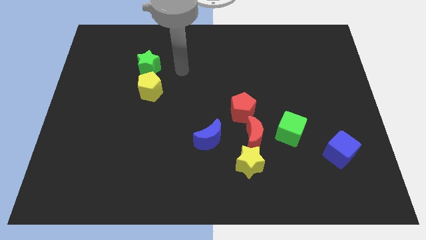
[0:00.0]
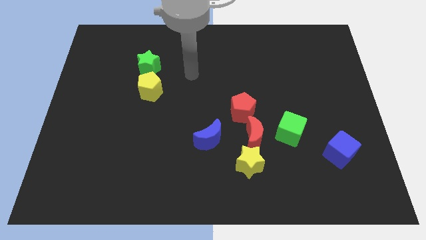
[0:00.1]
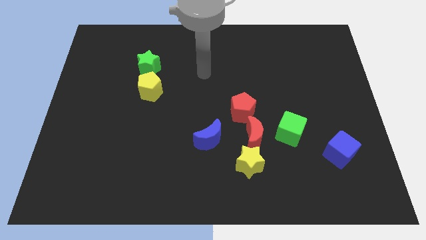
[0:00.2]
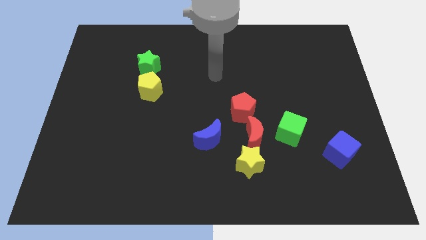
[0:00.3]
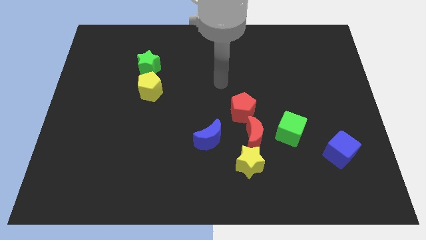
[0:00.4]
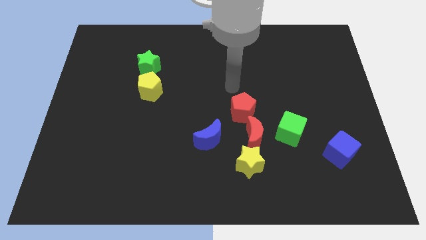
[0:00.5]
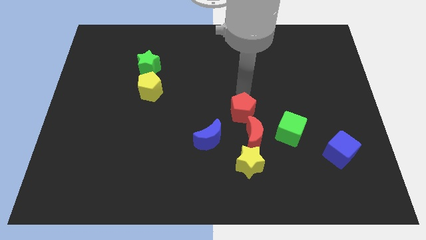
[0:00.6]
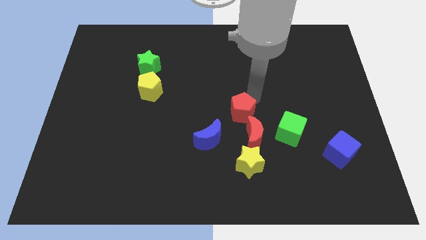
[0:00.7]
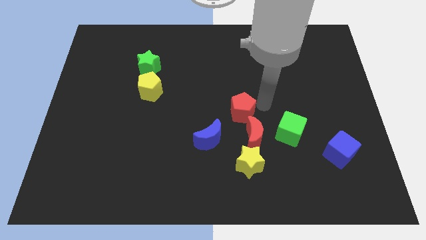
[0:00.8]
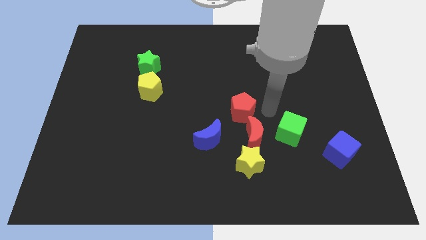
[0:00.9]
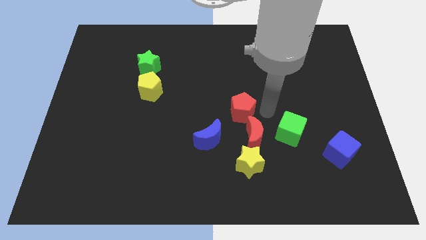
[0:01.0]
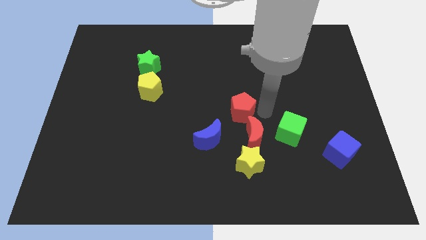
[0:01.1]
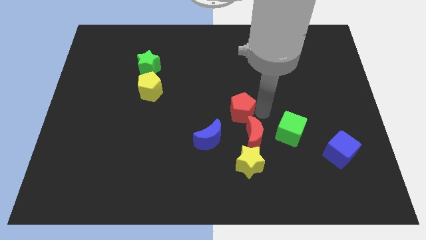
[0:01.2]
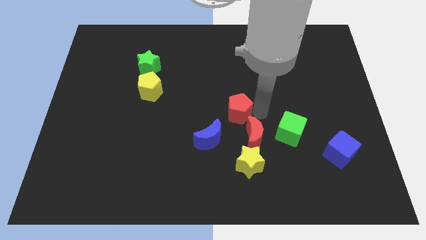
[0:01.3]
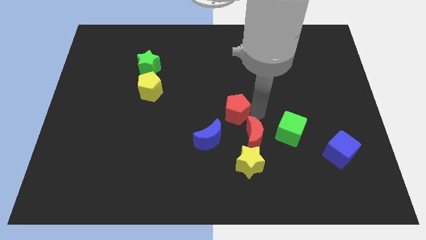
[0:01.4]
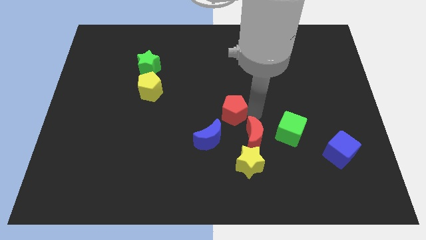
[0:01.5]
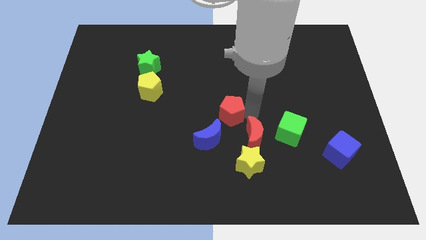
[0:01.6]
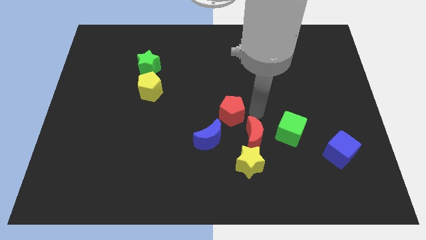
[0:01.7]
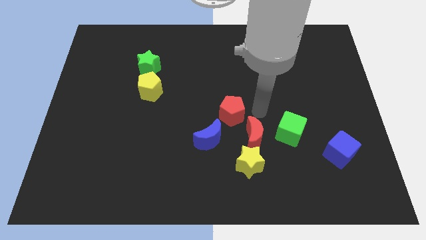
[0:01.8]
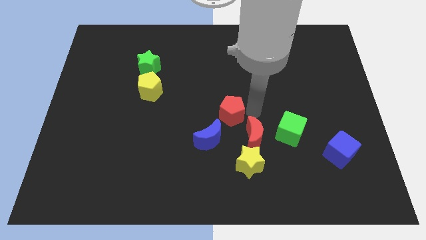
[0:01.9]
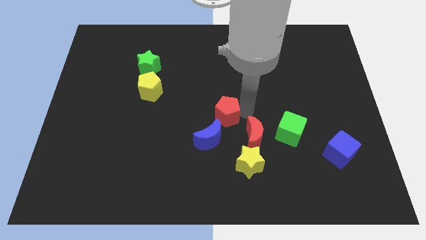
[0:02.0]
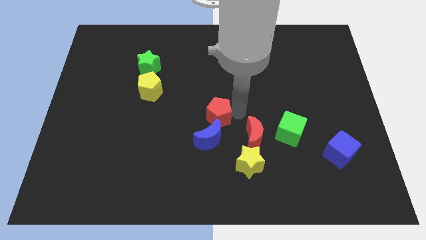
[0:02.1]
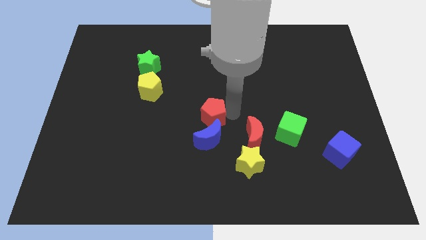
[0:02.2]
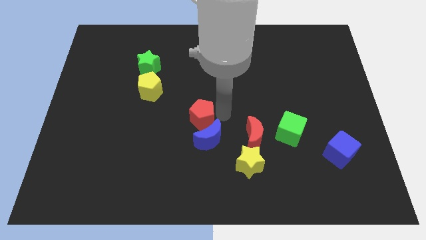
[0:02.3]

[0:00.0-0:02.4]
slide the red pentagon a little bit to the left

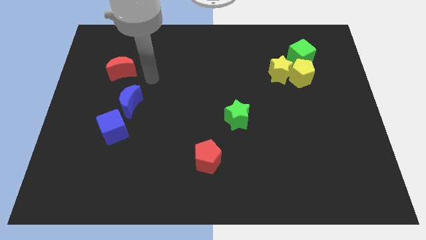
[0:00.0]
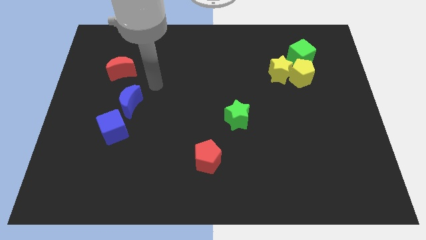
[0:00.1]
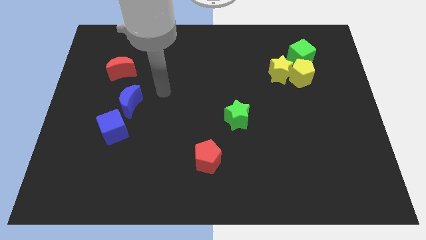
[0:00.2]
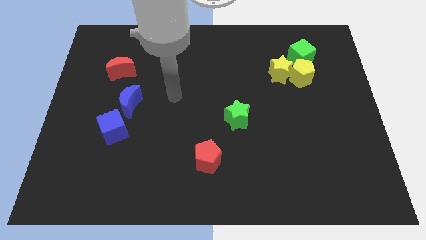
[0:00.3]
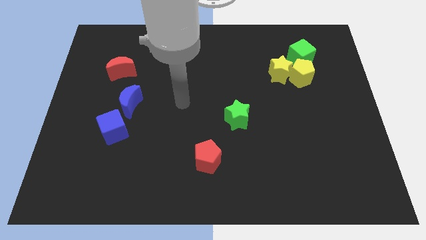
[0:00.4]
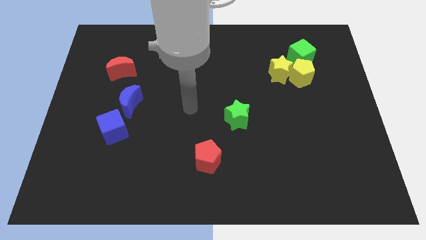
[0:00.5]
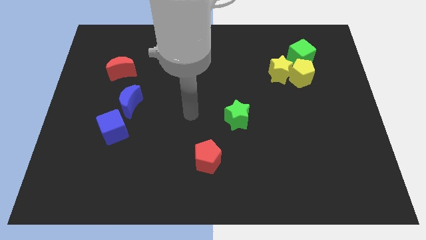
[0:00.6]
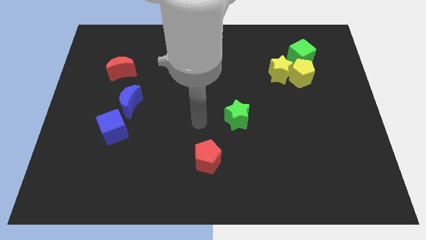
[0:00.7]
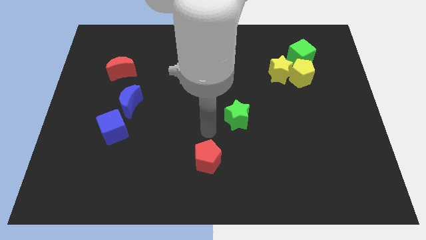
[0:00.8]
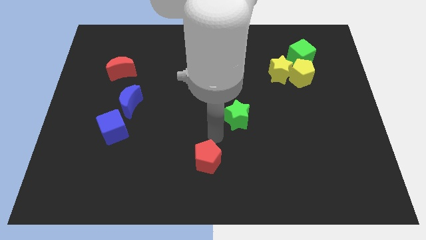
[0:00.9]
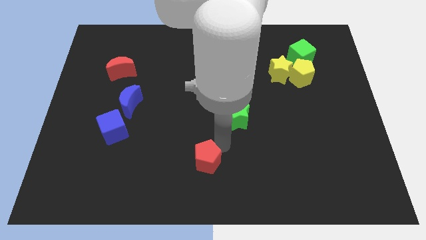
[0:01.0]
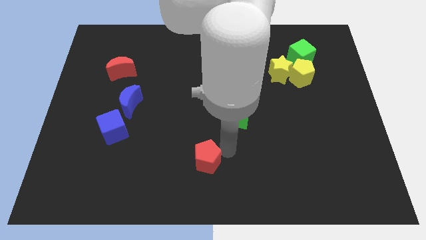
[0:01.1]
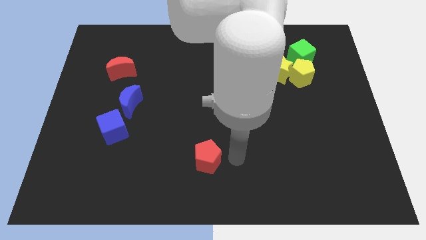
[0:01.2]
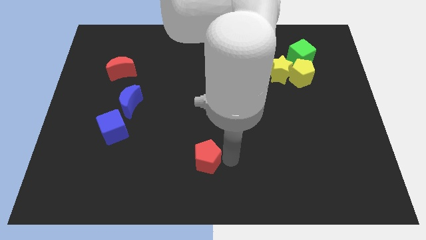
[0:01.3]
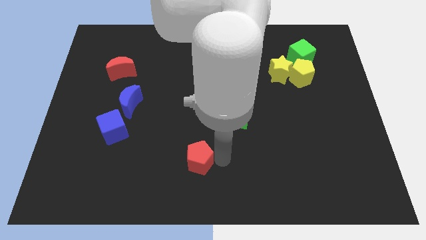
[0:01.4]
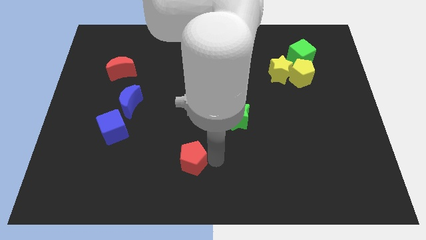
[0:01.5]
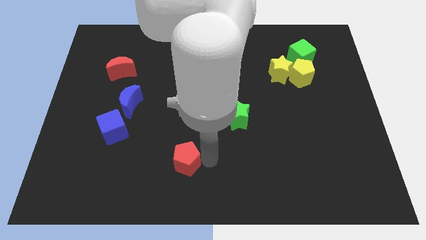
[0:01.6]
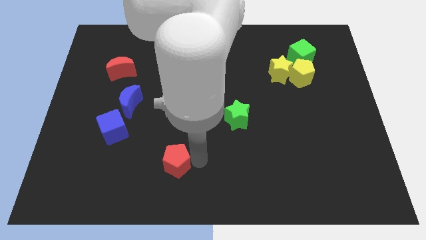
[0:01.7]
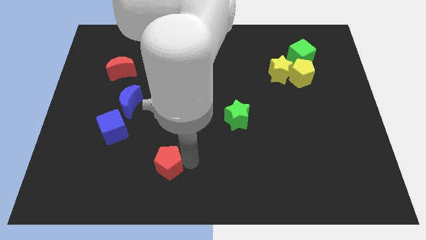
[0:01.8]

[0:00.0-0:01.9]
slightly move the red pentagon left

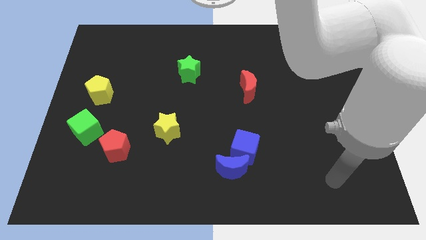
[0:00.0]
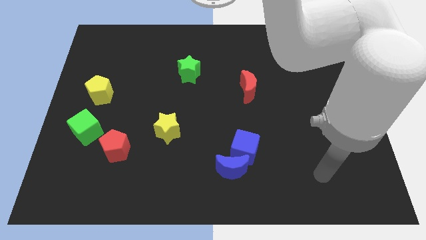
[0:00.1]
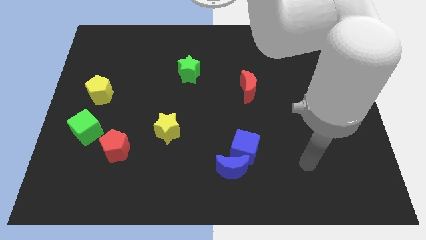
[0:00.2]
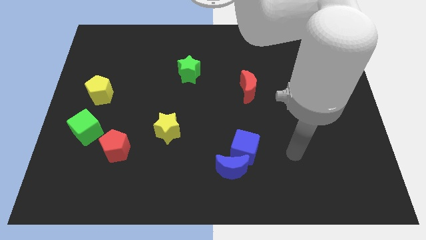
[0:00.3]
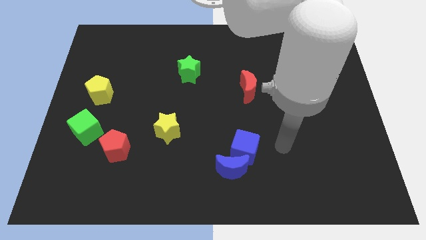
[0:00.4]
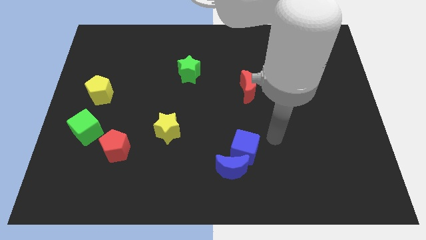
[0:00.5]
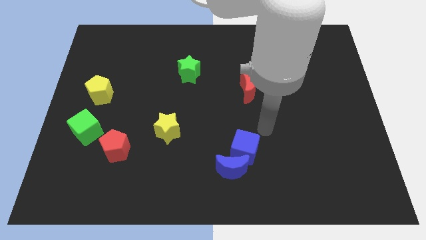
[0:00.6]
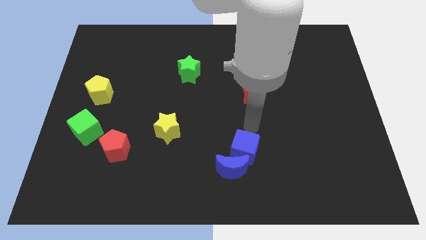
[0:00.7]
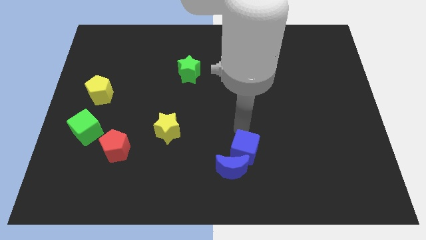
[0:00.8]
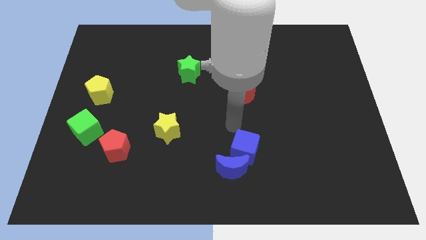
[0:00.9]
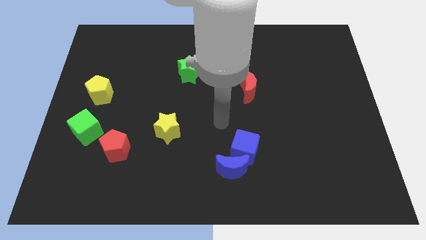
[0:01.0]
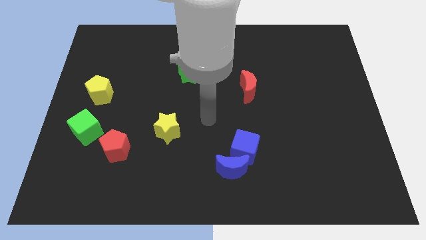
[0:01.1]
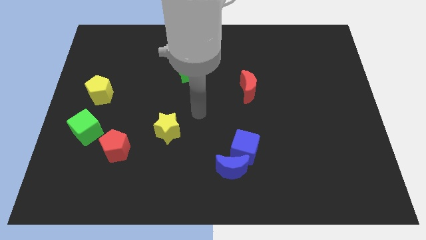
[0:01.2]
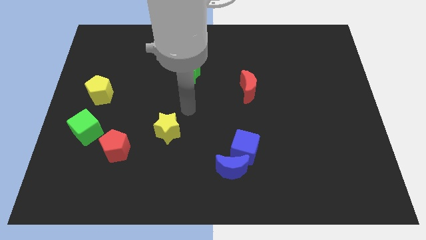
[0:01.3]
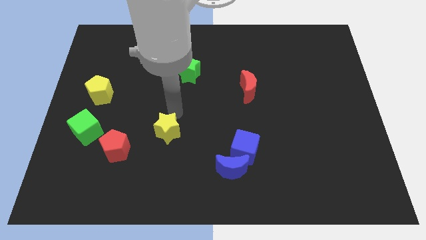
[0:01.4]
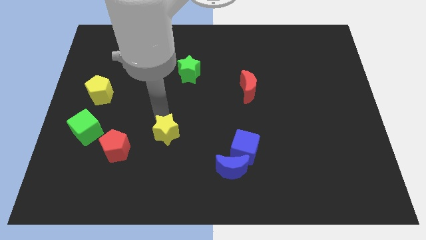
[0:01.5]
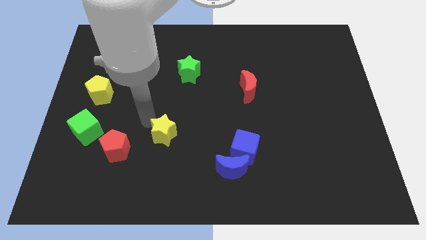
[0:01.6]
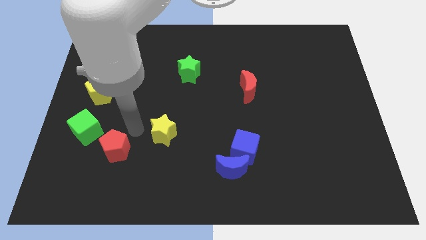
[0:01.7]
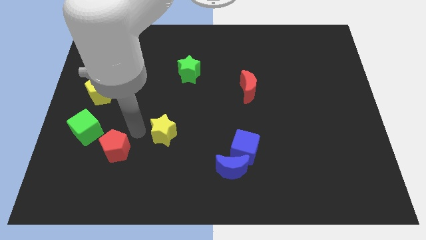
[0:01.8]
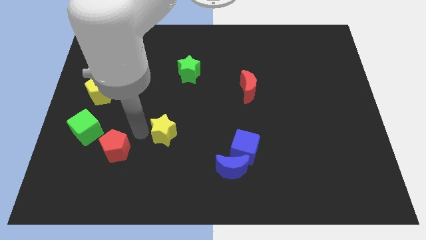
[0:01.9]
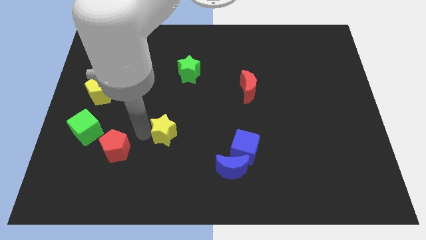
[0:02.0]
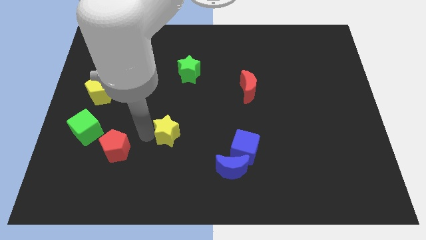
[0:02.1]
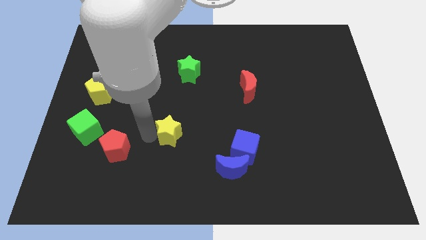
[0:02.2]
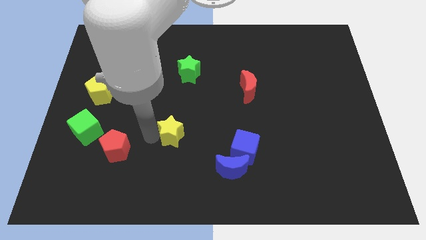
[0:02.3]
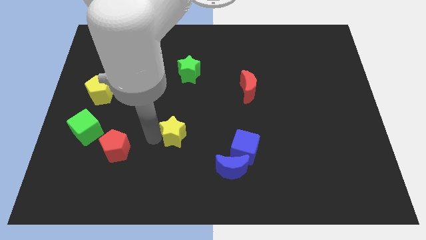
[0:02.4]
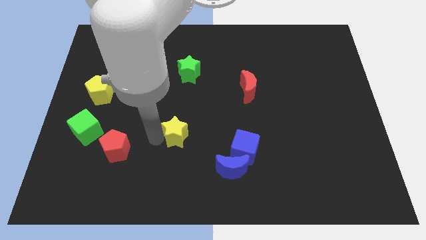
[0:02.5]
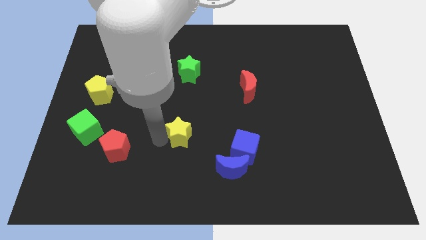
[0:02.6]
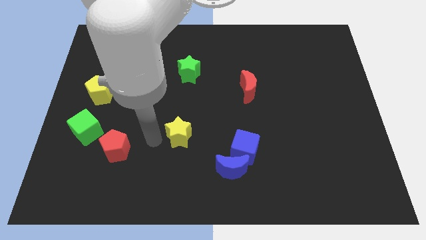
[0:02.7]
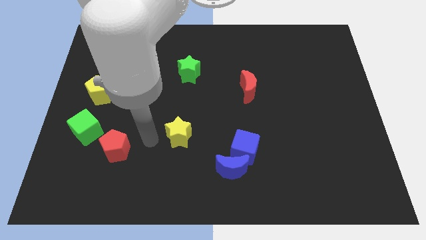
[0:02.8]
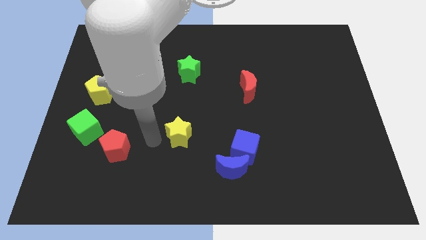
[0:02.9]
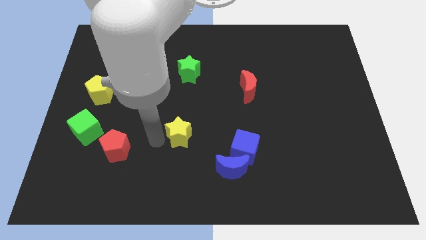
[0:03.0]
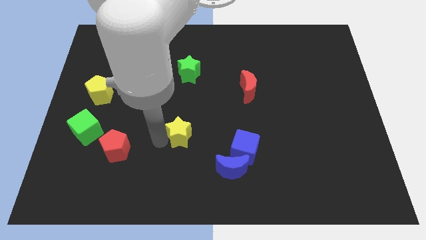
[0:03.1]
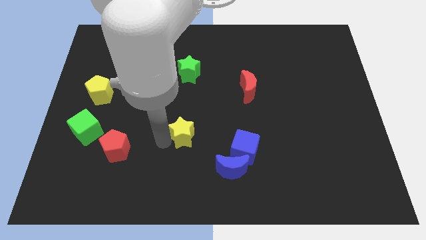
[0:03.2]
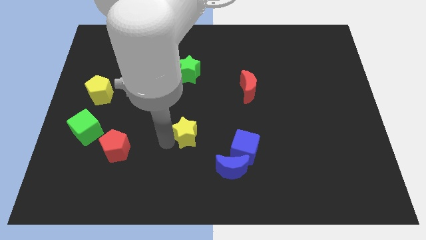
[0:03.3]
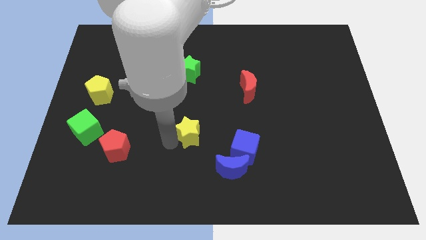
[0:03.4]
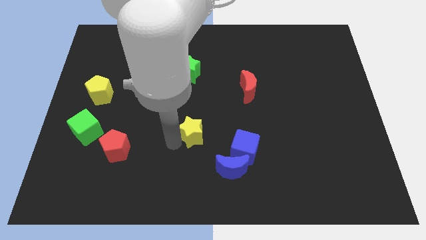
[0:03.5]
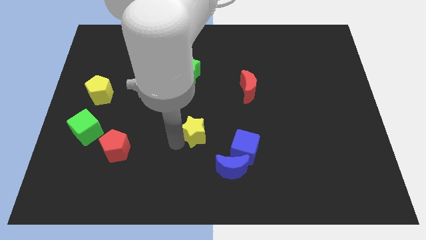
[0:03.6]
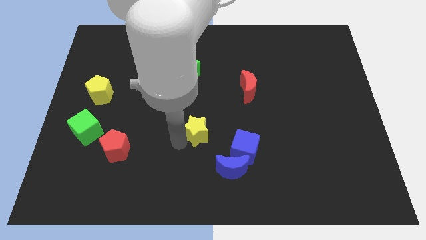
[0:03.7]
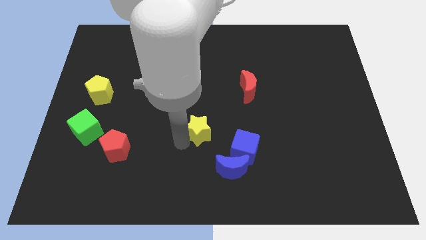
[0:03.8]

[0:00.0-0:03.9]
slightly push the yellow star to the right
